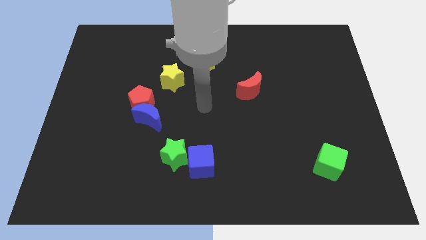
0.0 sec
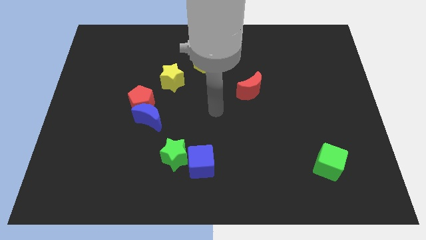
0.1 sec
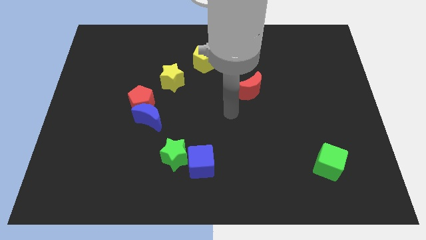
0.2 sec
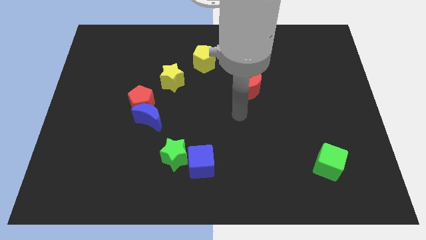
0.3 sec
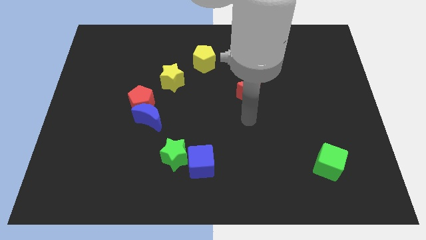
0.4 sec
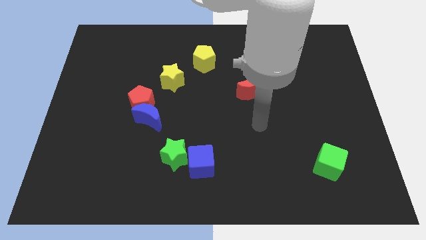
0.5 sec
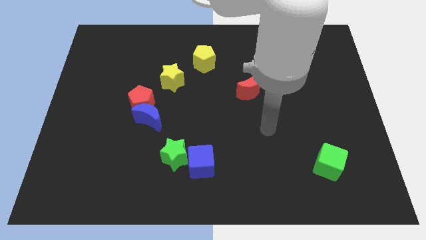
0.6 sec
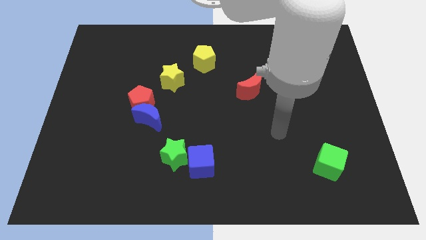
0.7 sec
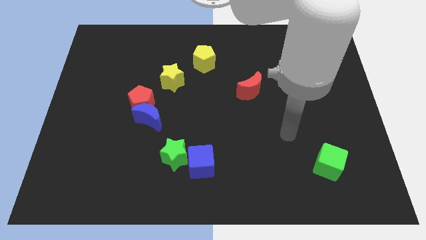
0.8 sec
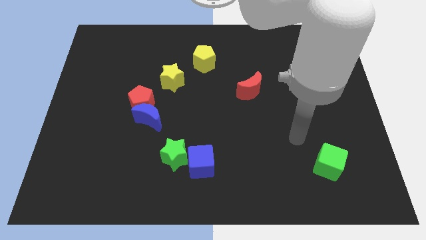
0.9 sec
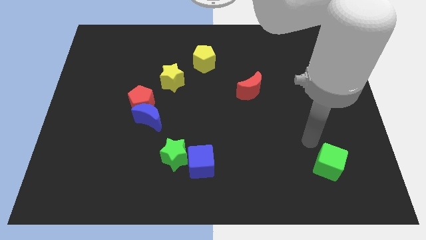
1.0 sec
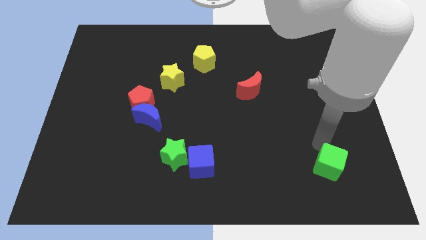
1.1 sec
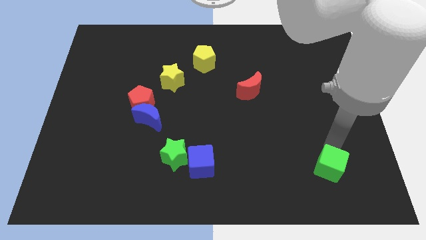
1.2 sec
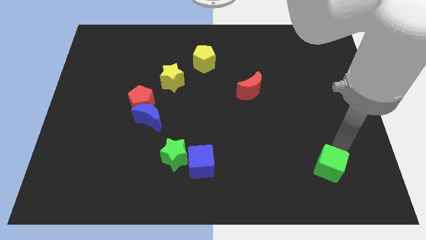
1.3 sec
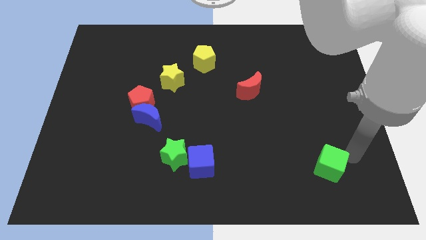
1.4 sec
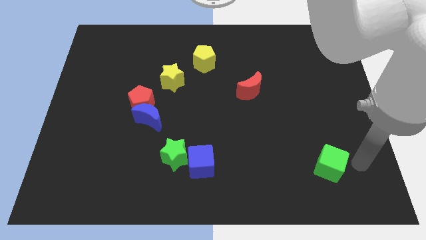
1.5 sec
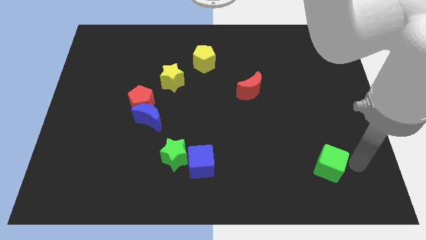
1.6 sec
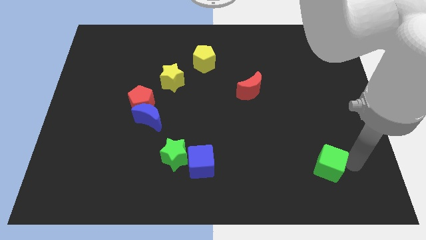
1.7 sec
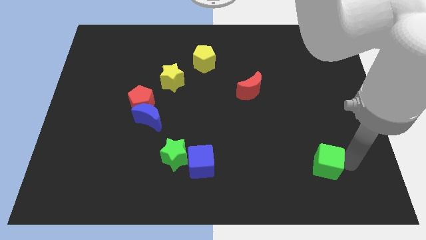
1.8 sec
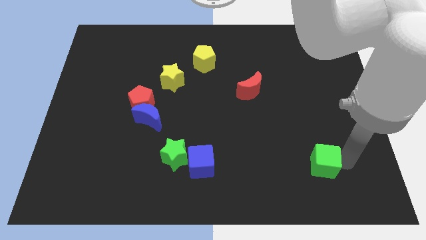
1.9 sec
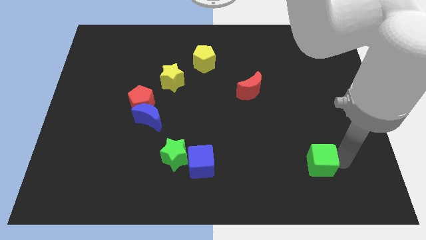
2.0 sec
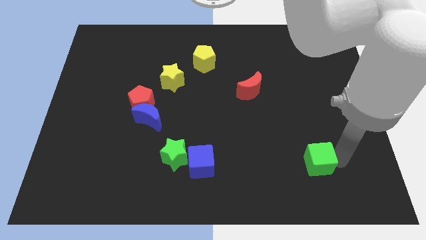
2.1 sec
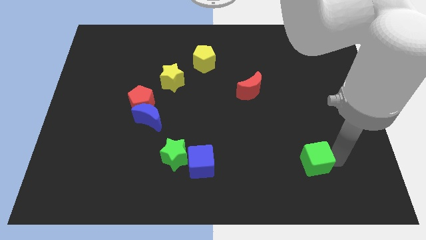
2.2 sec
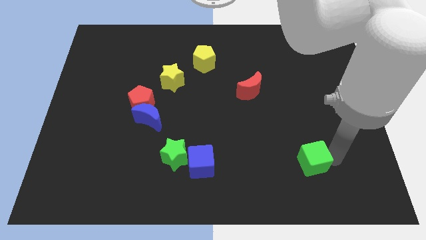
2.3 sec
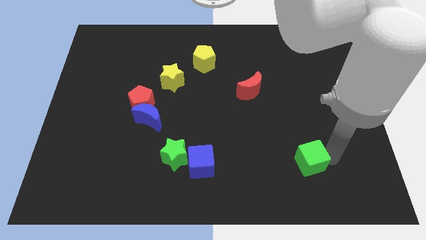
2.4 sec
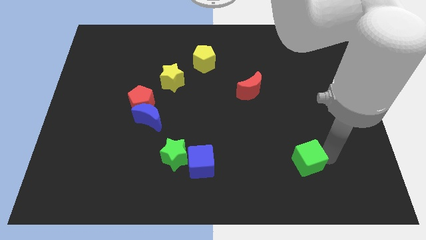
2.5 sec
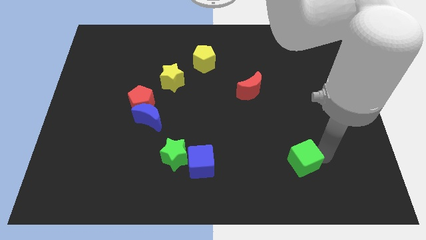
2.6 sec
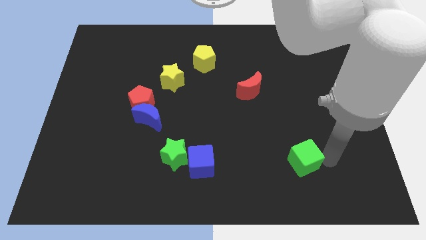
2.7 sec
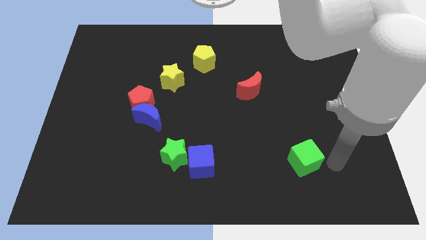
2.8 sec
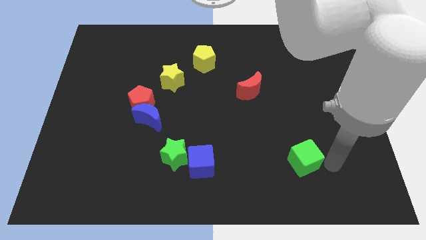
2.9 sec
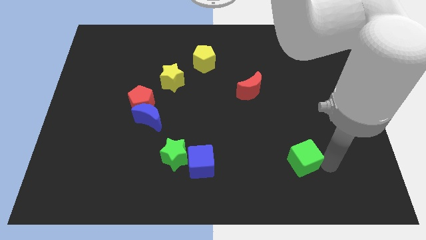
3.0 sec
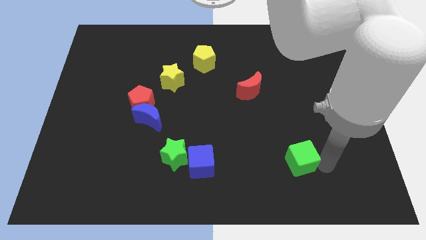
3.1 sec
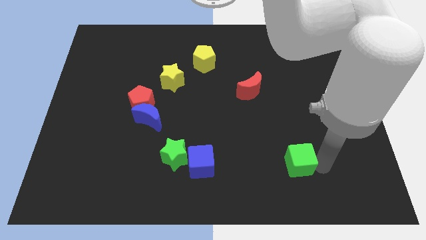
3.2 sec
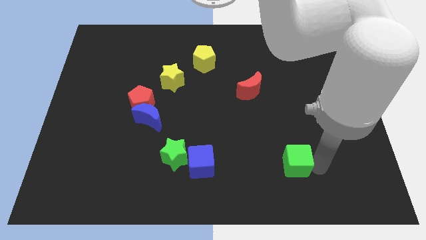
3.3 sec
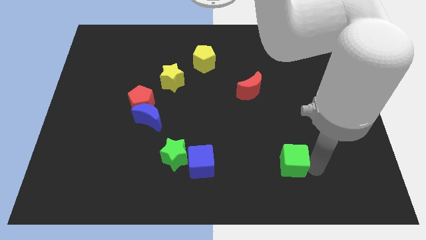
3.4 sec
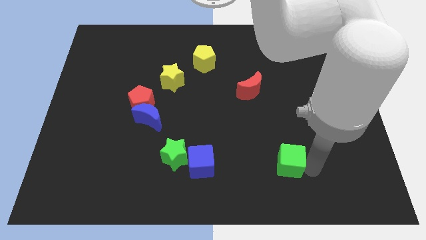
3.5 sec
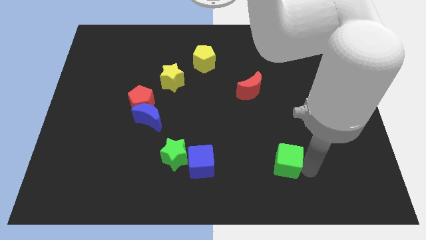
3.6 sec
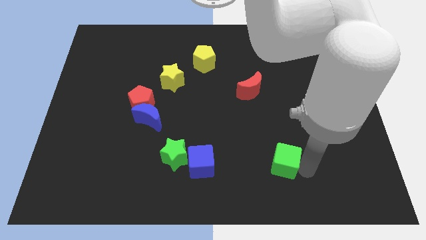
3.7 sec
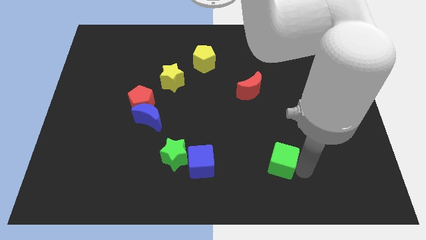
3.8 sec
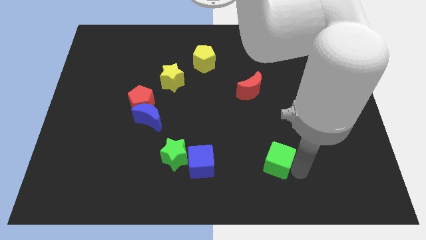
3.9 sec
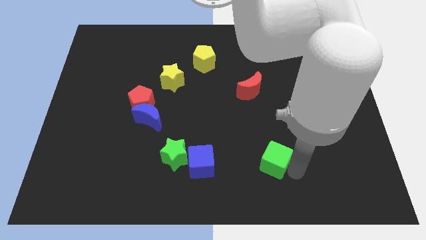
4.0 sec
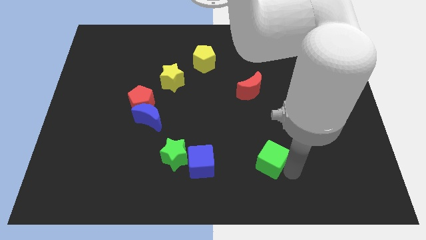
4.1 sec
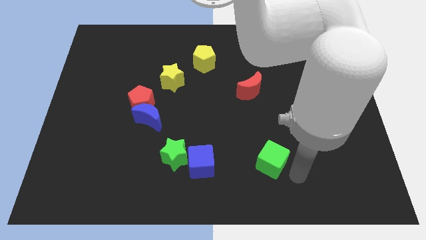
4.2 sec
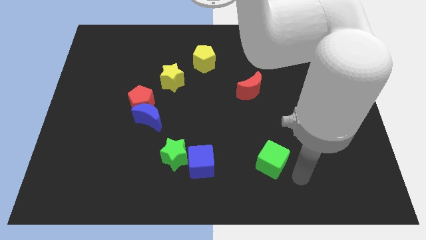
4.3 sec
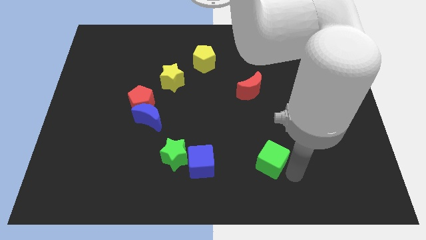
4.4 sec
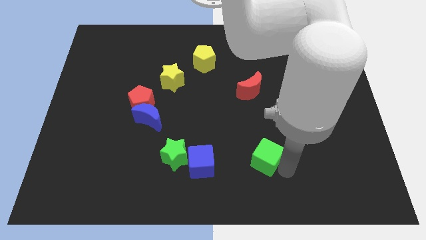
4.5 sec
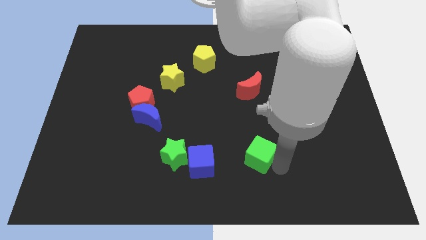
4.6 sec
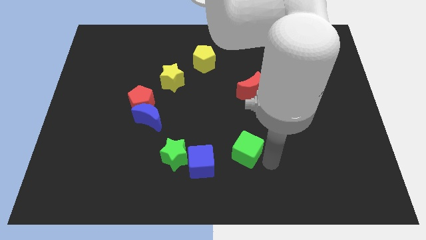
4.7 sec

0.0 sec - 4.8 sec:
slide the green cube to the top right side of the blue cube

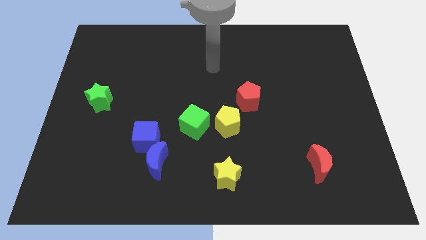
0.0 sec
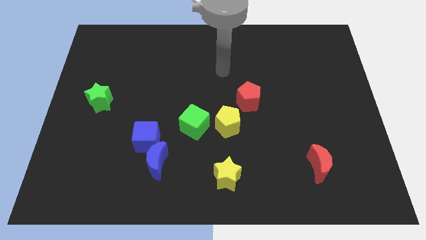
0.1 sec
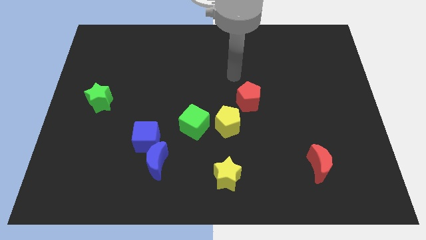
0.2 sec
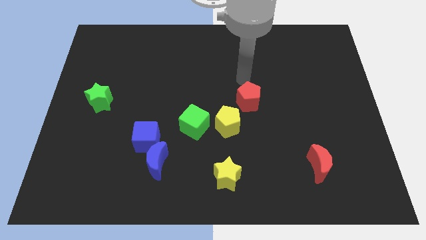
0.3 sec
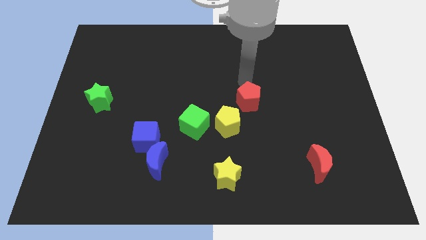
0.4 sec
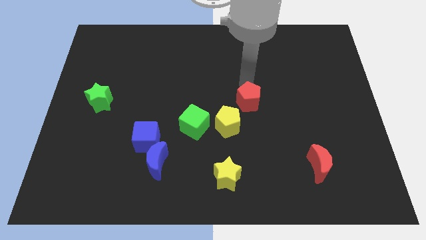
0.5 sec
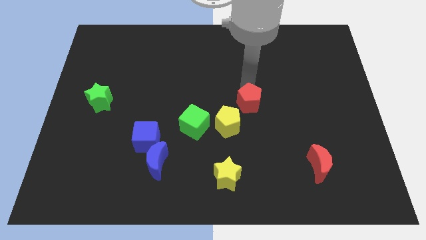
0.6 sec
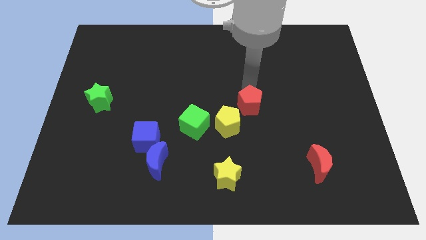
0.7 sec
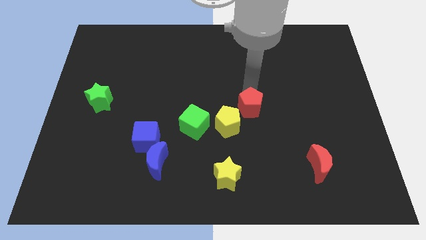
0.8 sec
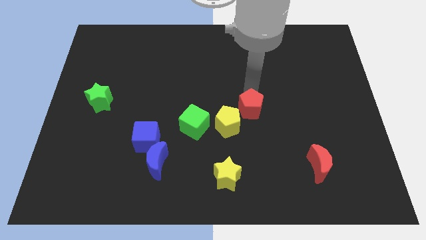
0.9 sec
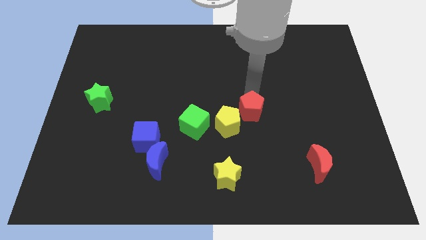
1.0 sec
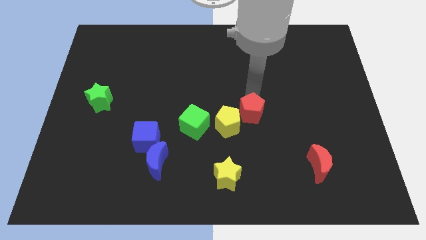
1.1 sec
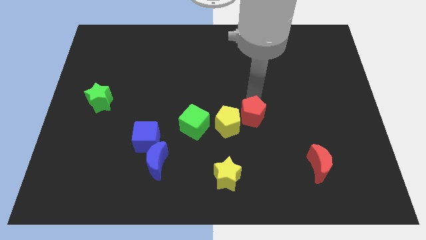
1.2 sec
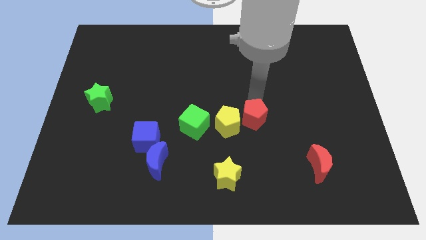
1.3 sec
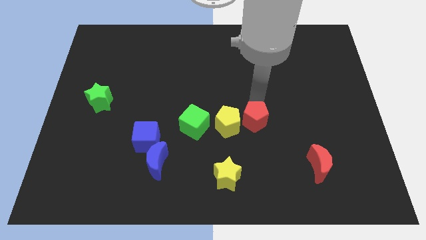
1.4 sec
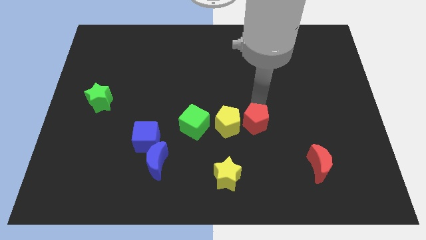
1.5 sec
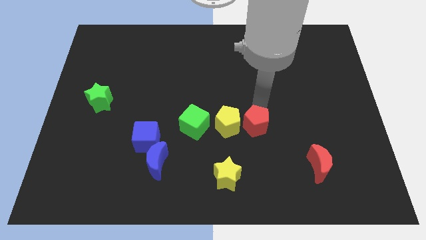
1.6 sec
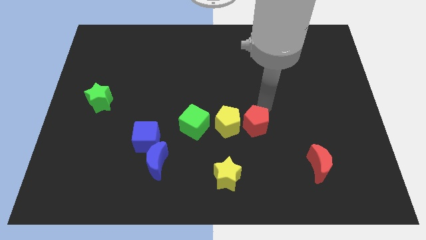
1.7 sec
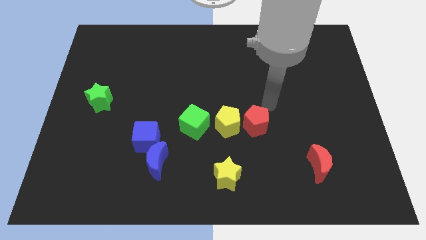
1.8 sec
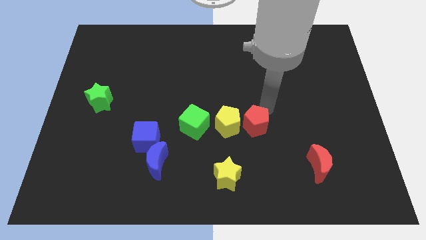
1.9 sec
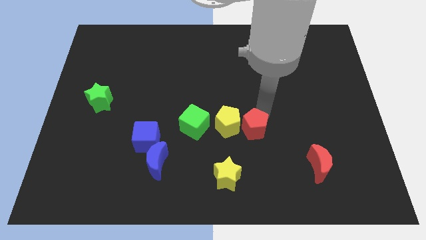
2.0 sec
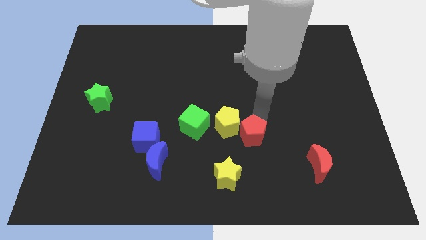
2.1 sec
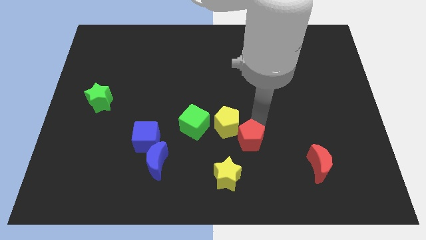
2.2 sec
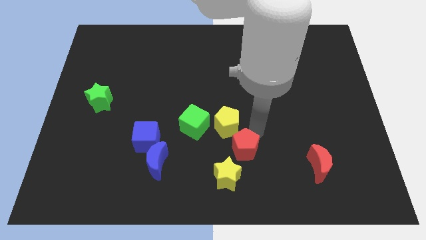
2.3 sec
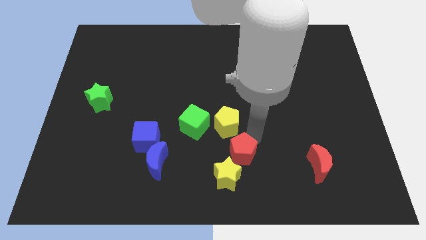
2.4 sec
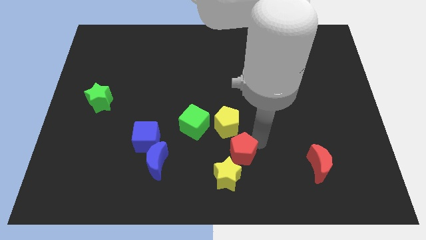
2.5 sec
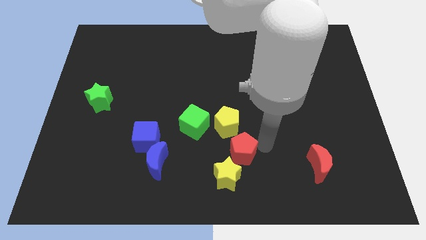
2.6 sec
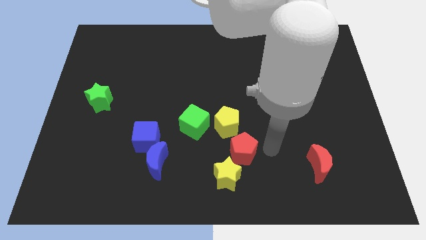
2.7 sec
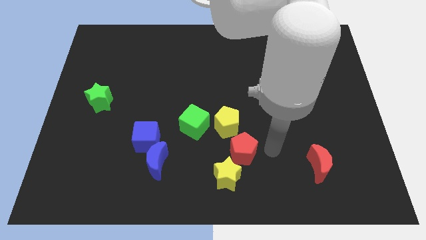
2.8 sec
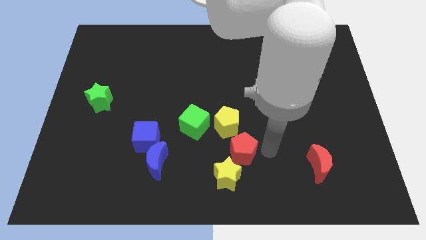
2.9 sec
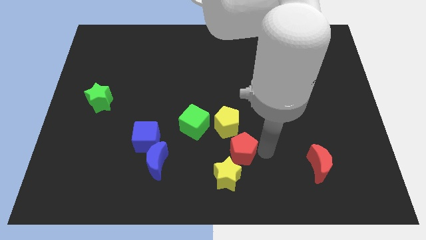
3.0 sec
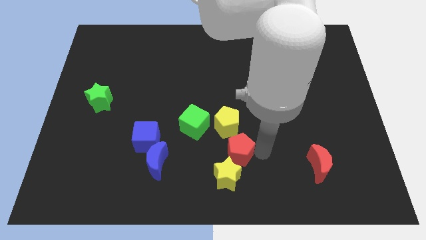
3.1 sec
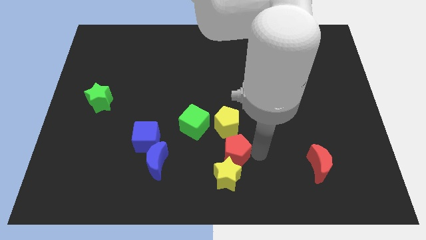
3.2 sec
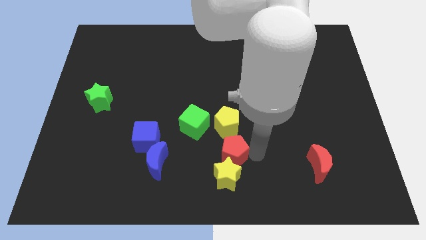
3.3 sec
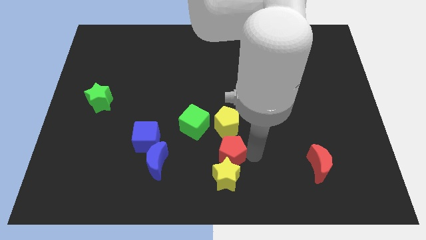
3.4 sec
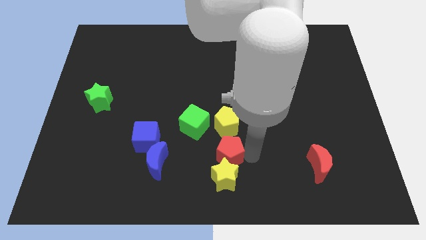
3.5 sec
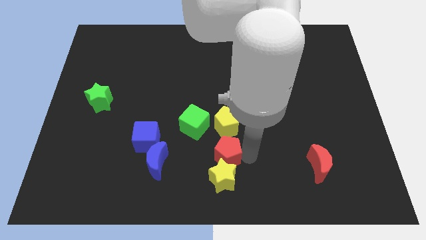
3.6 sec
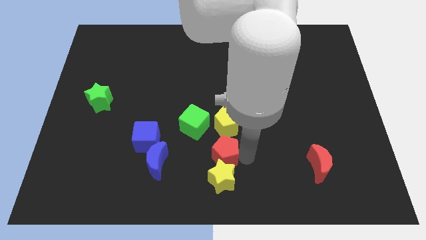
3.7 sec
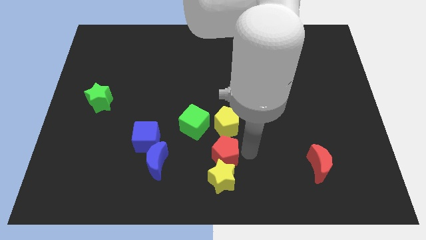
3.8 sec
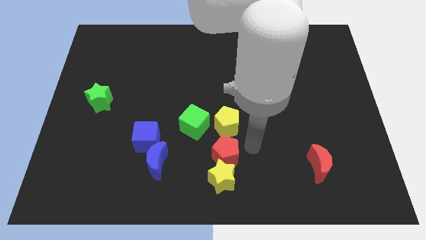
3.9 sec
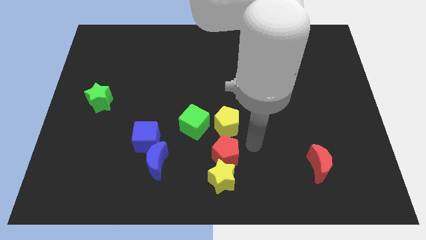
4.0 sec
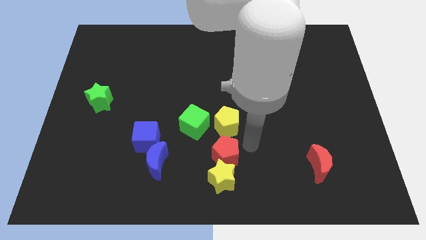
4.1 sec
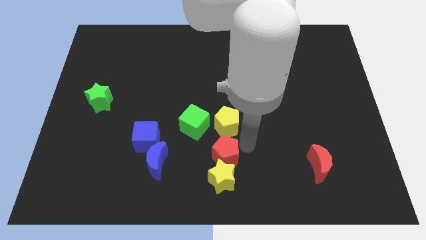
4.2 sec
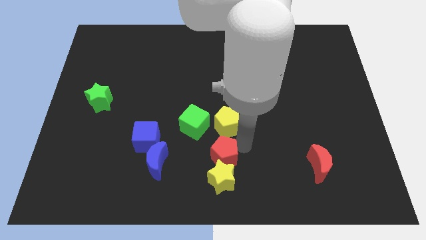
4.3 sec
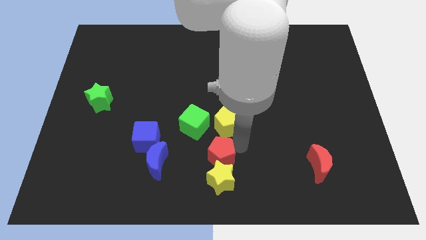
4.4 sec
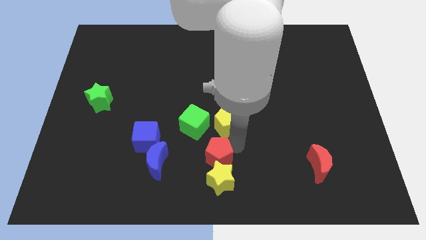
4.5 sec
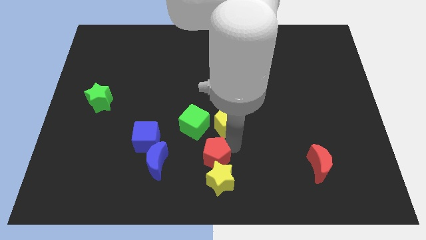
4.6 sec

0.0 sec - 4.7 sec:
move the red pentagon to the bottom side of the green cube
